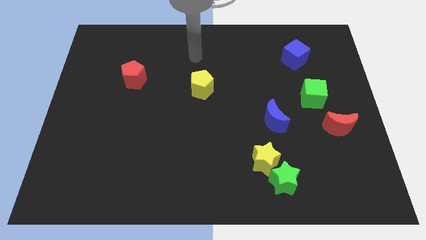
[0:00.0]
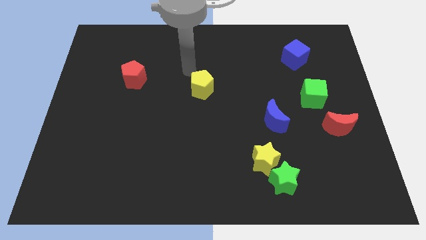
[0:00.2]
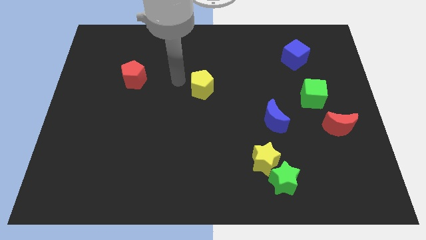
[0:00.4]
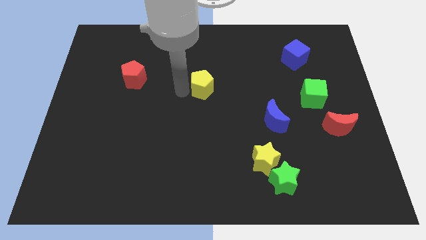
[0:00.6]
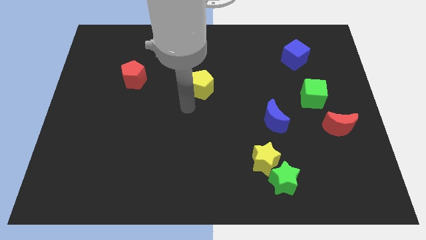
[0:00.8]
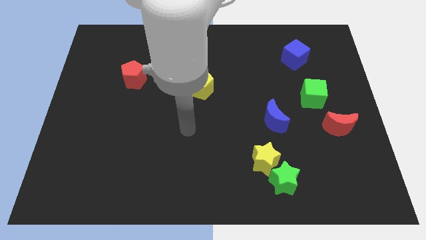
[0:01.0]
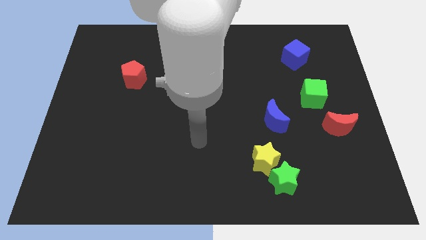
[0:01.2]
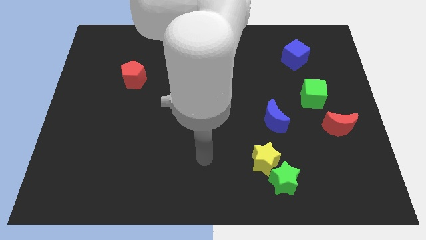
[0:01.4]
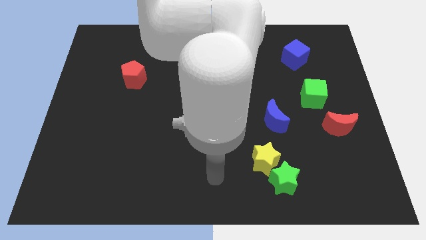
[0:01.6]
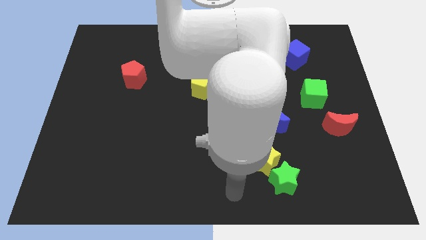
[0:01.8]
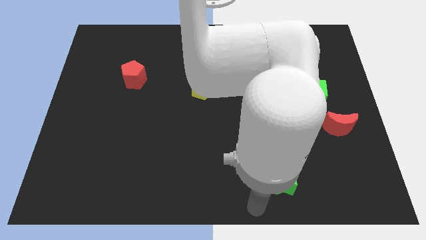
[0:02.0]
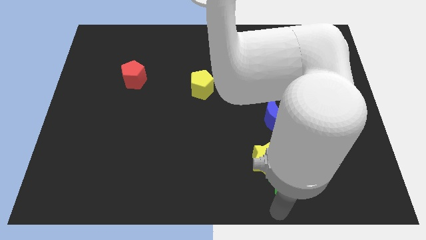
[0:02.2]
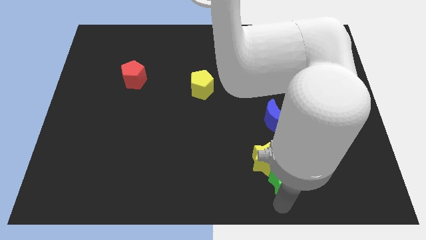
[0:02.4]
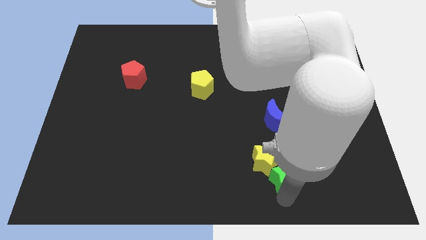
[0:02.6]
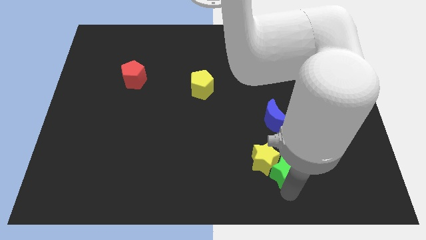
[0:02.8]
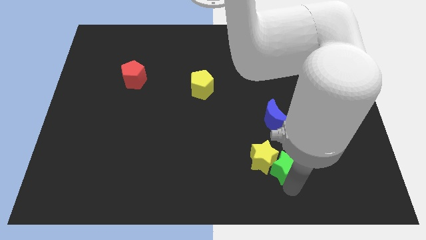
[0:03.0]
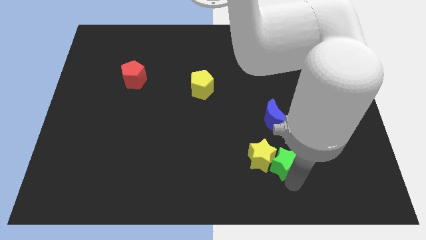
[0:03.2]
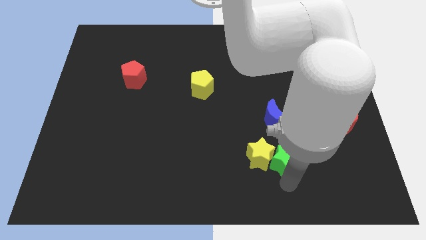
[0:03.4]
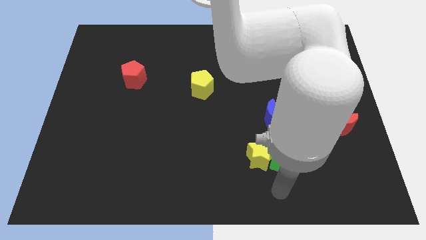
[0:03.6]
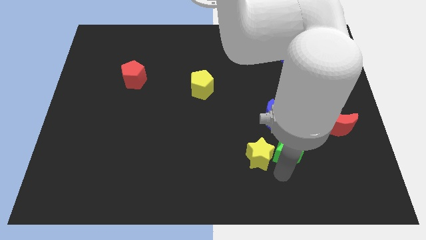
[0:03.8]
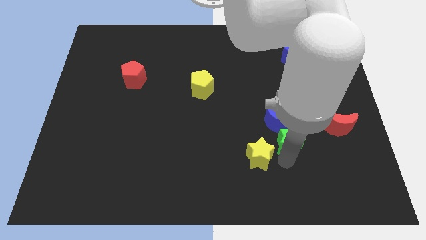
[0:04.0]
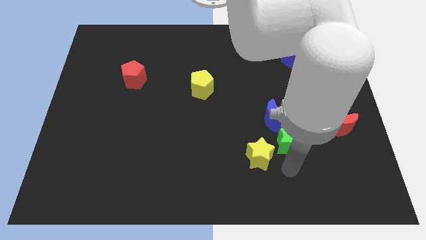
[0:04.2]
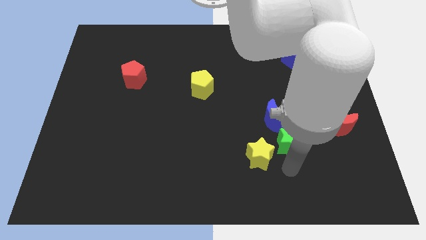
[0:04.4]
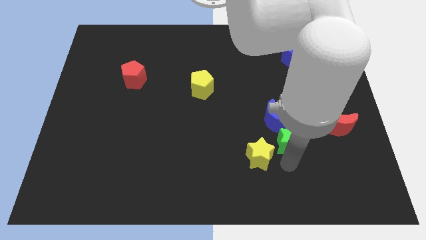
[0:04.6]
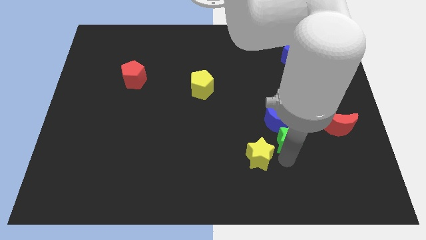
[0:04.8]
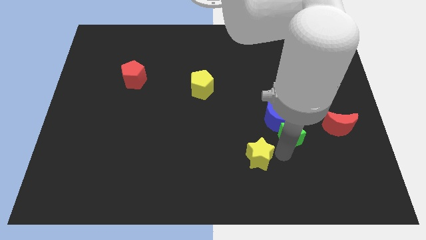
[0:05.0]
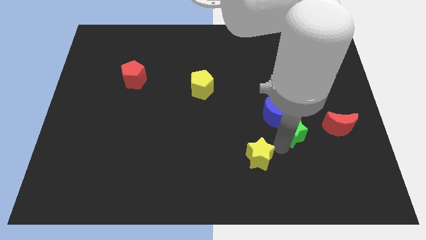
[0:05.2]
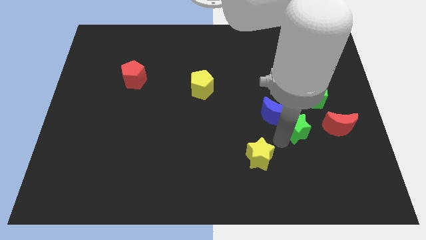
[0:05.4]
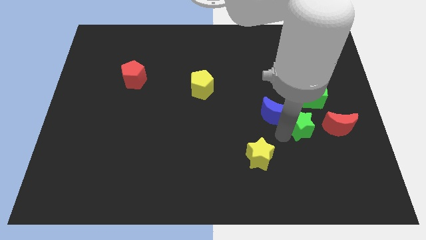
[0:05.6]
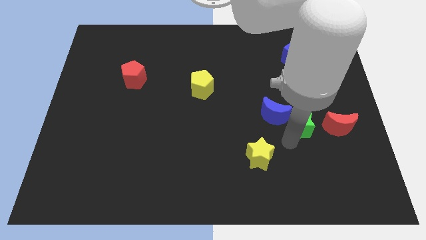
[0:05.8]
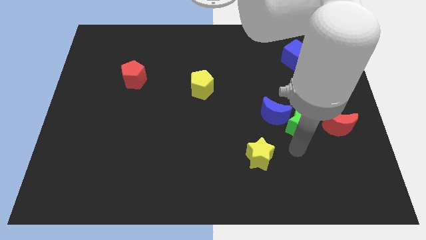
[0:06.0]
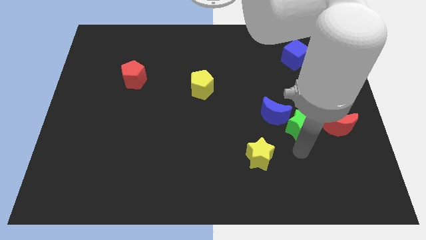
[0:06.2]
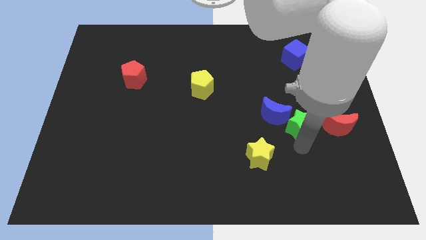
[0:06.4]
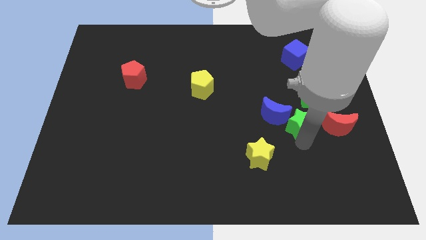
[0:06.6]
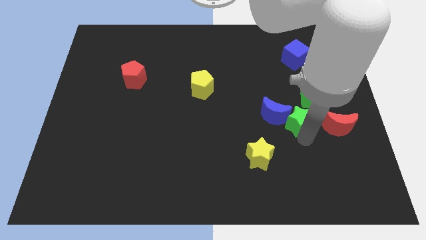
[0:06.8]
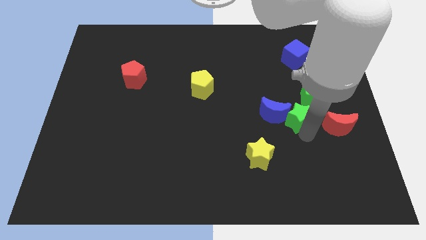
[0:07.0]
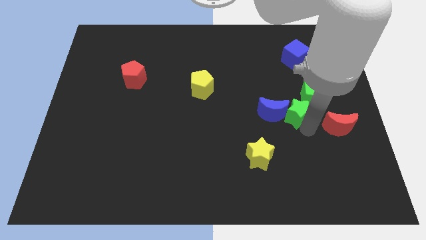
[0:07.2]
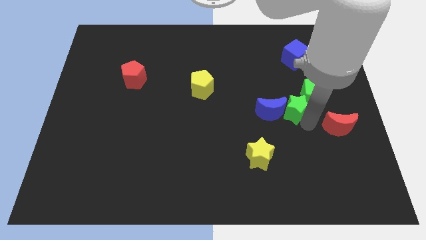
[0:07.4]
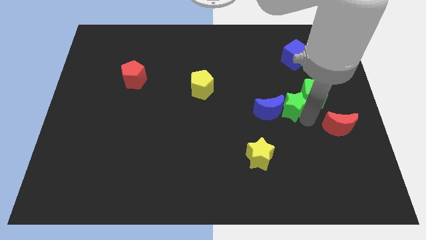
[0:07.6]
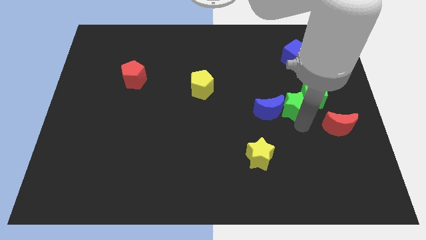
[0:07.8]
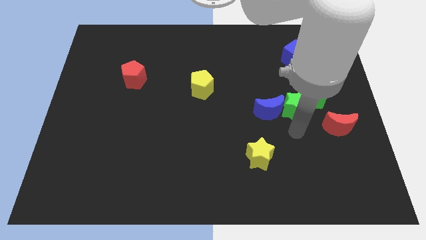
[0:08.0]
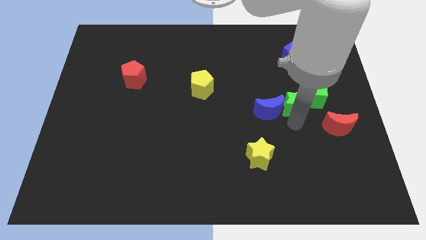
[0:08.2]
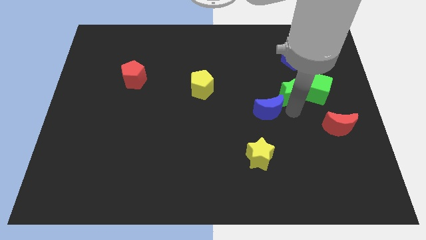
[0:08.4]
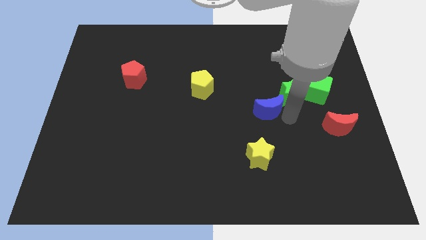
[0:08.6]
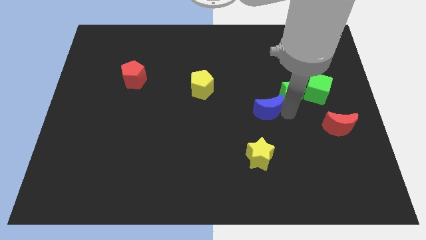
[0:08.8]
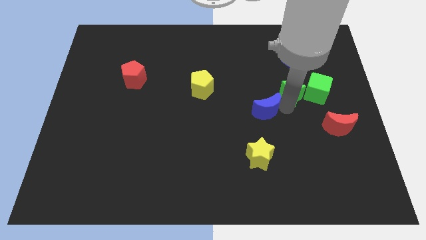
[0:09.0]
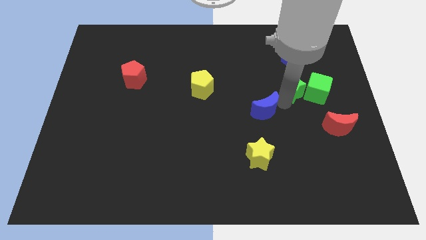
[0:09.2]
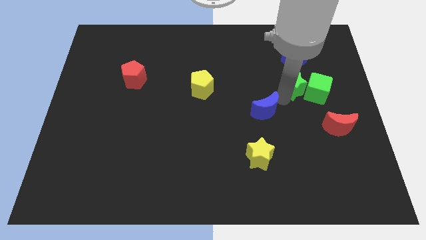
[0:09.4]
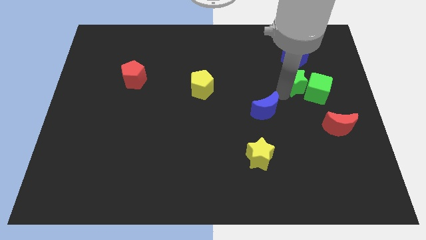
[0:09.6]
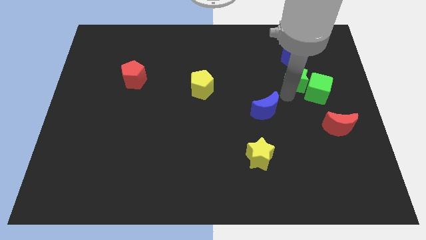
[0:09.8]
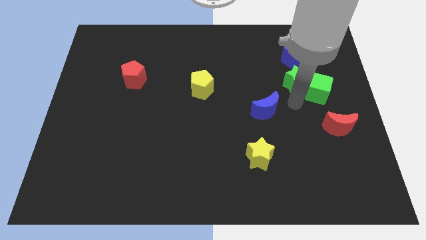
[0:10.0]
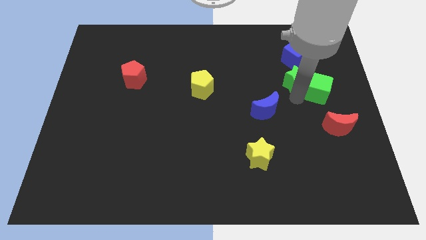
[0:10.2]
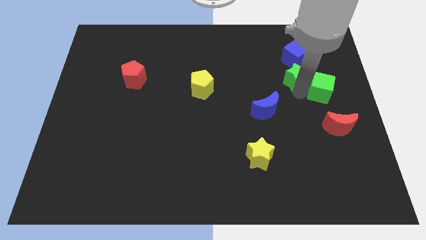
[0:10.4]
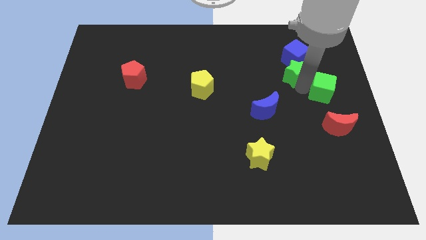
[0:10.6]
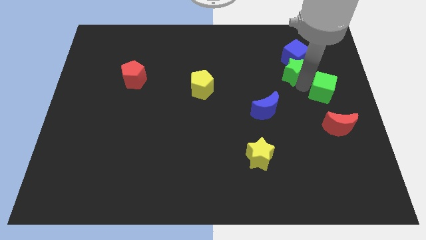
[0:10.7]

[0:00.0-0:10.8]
slide the green star next to the blue cube

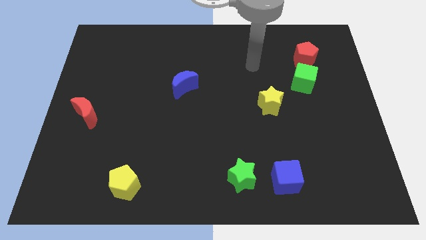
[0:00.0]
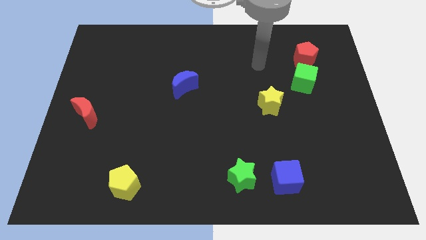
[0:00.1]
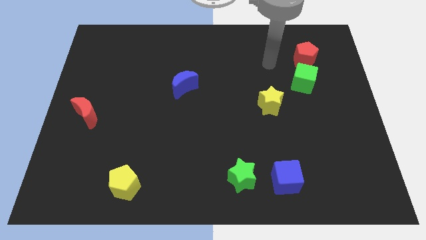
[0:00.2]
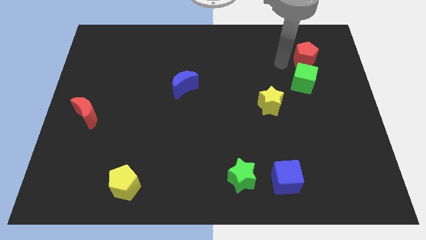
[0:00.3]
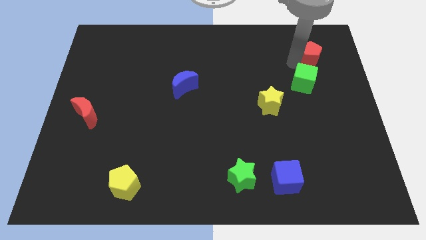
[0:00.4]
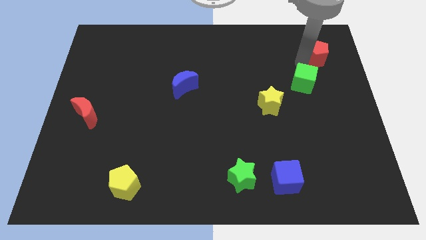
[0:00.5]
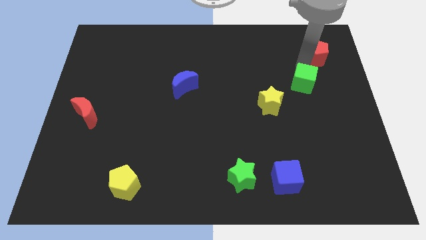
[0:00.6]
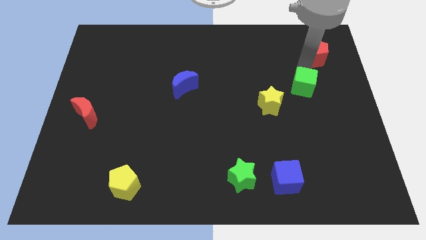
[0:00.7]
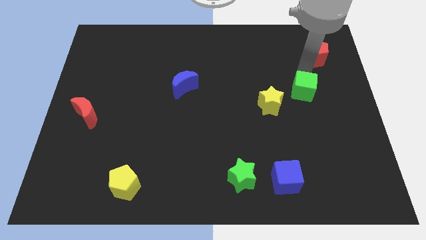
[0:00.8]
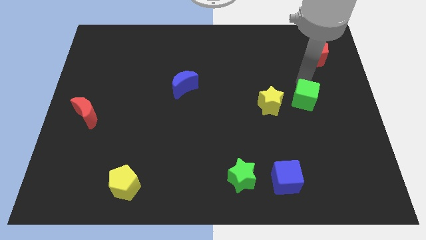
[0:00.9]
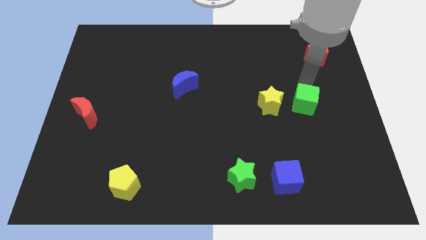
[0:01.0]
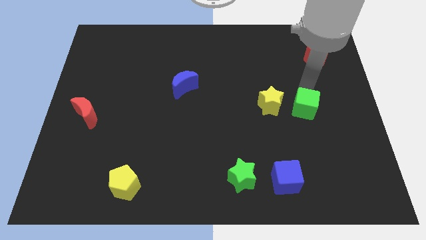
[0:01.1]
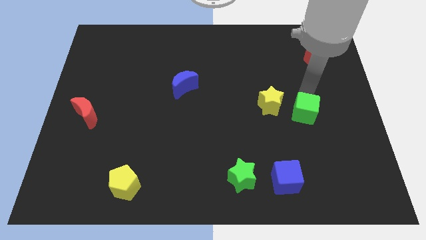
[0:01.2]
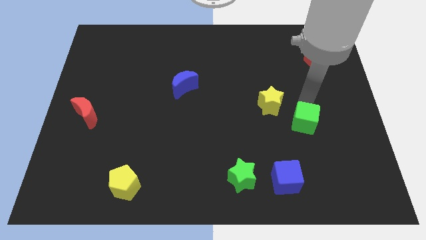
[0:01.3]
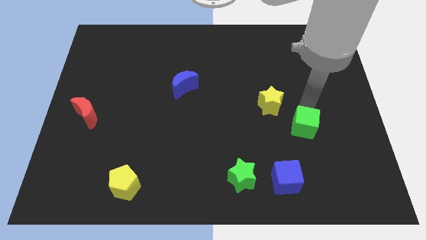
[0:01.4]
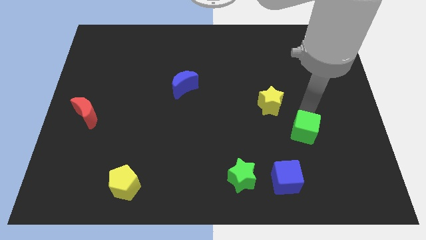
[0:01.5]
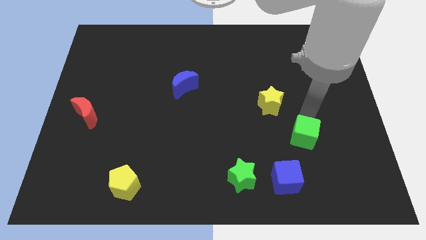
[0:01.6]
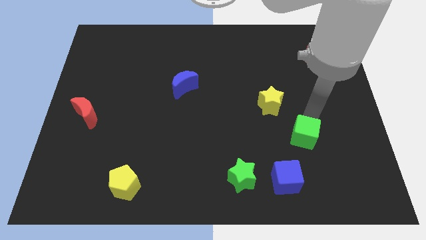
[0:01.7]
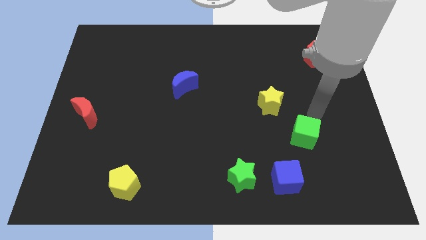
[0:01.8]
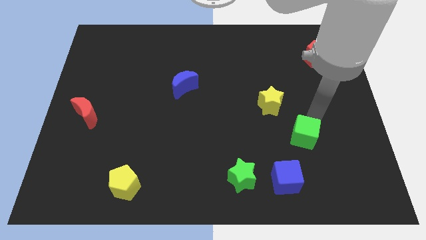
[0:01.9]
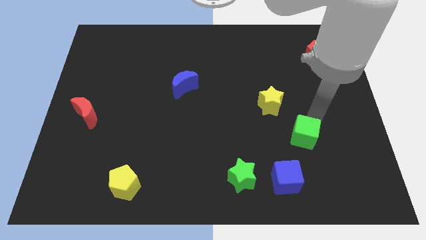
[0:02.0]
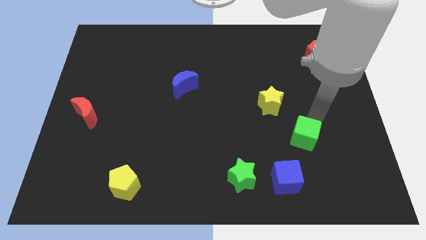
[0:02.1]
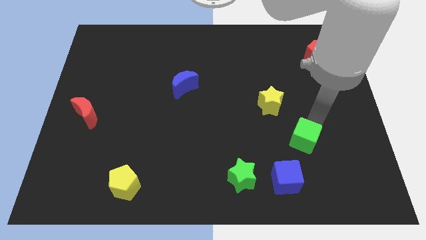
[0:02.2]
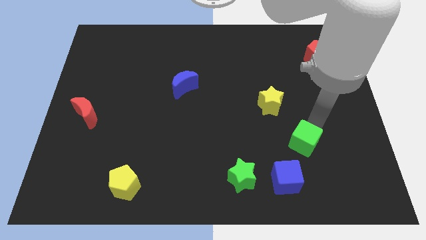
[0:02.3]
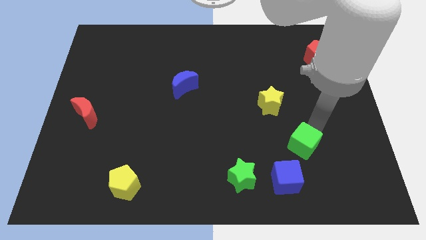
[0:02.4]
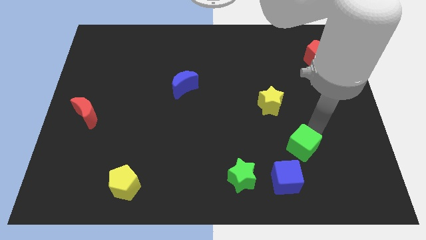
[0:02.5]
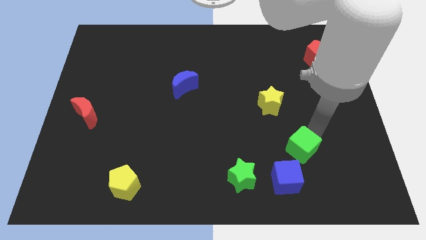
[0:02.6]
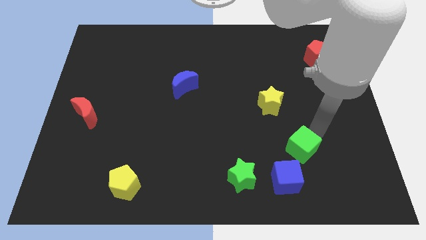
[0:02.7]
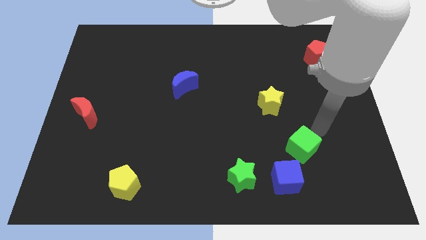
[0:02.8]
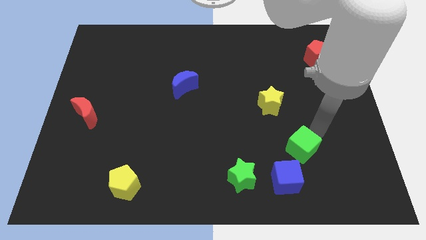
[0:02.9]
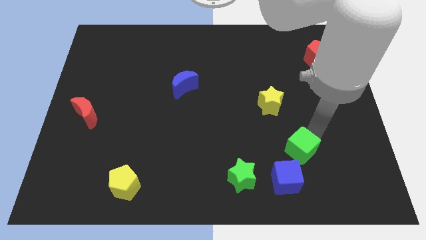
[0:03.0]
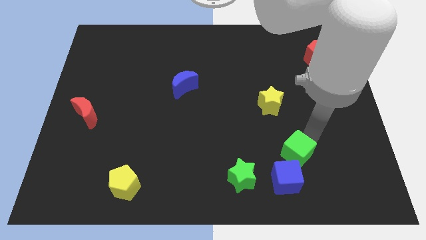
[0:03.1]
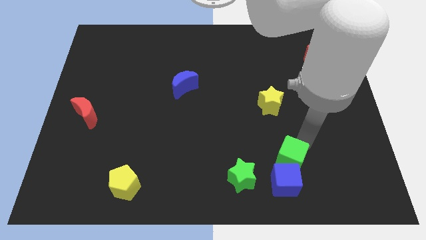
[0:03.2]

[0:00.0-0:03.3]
move the green cube to the blue cube
